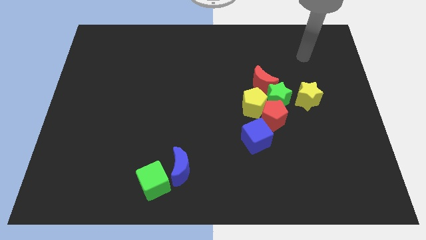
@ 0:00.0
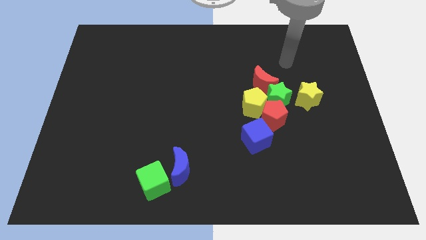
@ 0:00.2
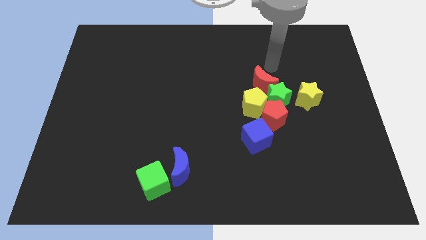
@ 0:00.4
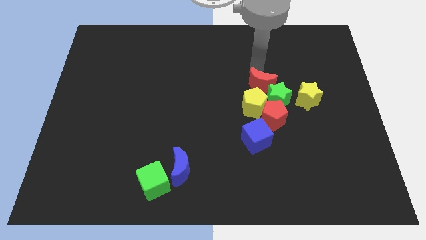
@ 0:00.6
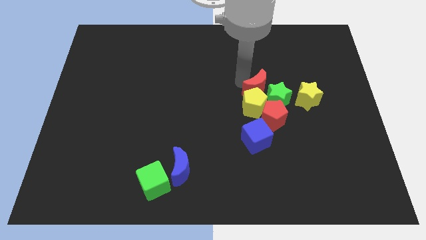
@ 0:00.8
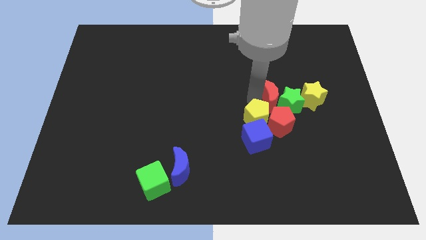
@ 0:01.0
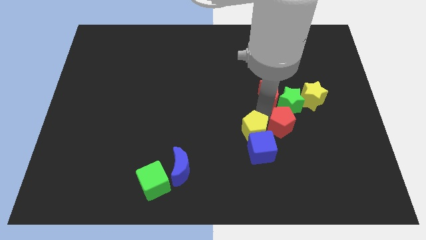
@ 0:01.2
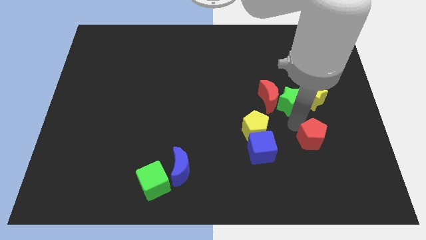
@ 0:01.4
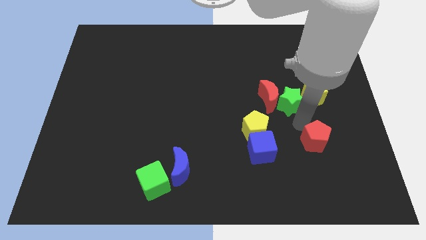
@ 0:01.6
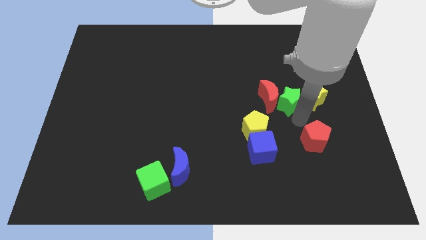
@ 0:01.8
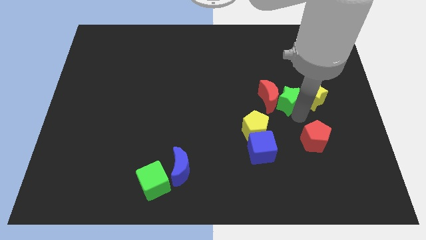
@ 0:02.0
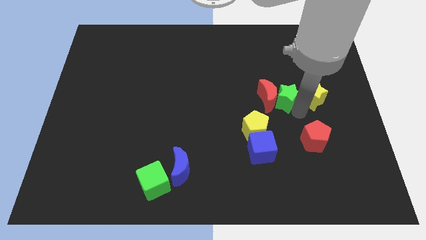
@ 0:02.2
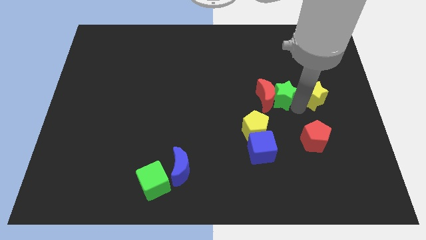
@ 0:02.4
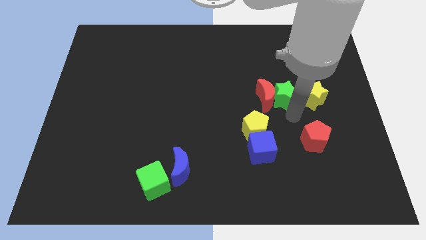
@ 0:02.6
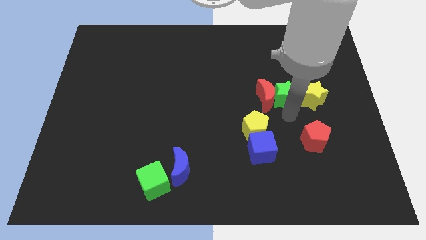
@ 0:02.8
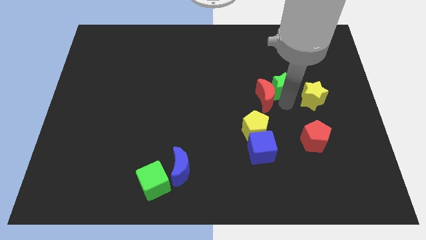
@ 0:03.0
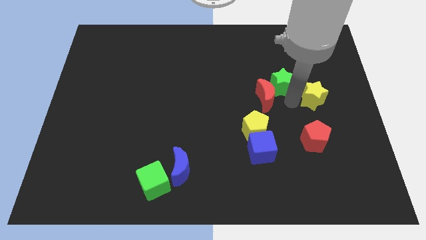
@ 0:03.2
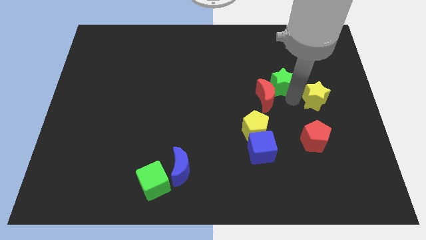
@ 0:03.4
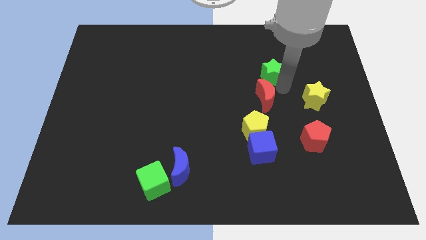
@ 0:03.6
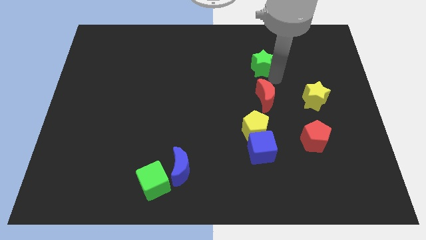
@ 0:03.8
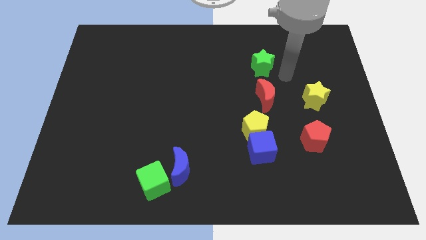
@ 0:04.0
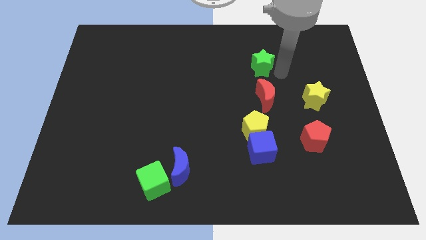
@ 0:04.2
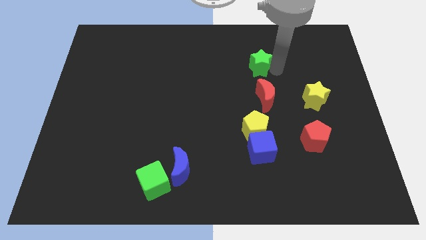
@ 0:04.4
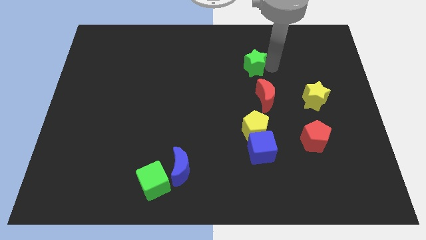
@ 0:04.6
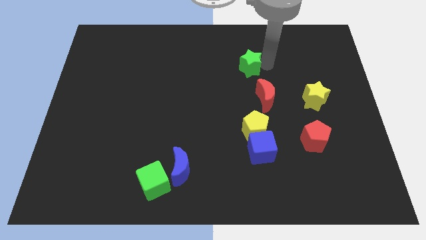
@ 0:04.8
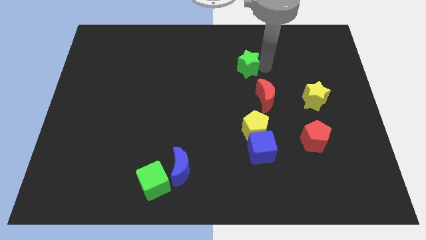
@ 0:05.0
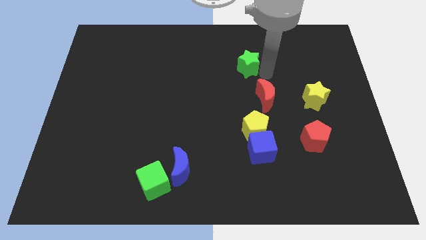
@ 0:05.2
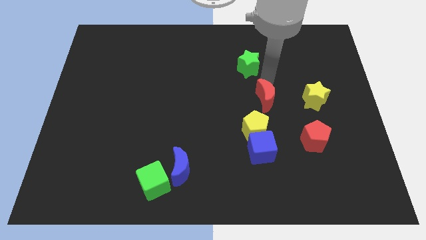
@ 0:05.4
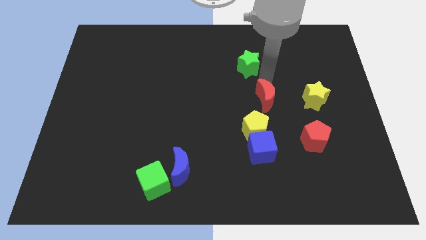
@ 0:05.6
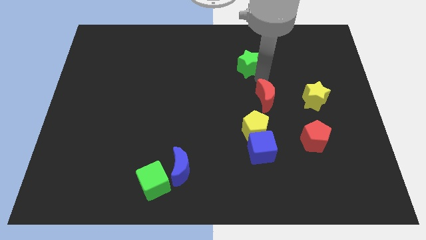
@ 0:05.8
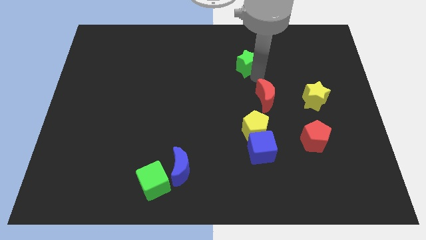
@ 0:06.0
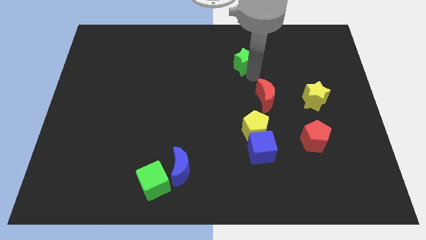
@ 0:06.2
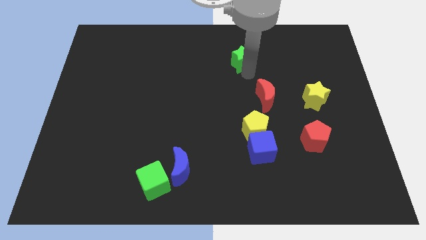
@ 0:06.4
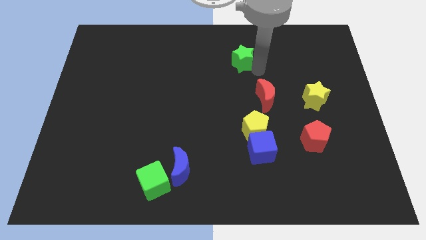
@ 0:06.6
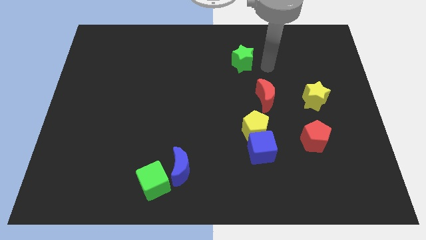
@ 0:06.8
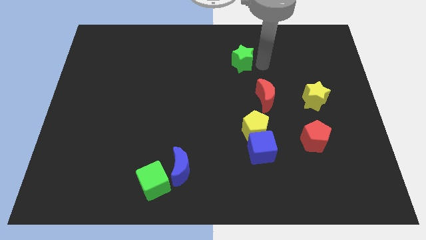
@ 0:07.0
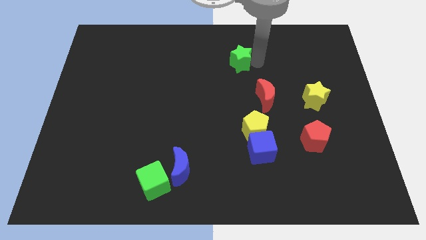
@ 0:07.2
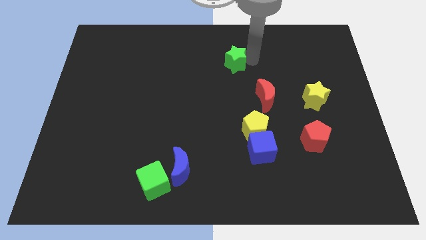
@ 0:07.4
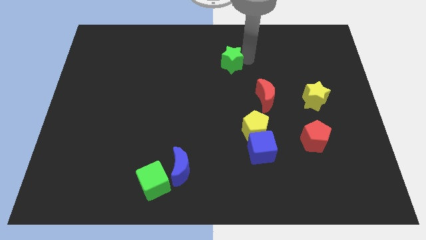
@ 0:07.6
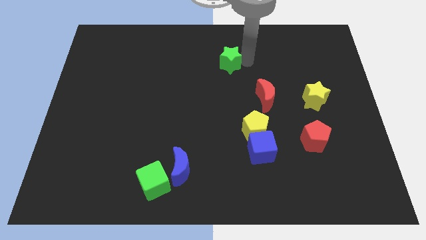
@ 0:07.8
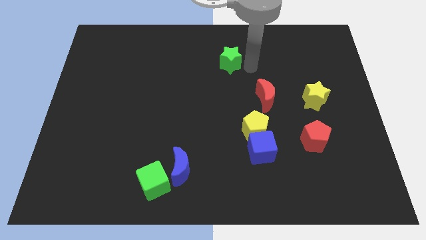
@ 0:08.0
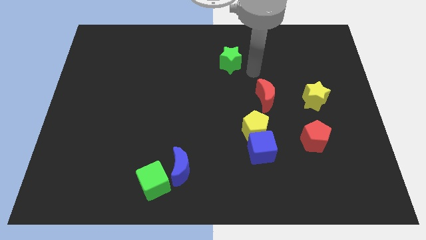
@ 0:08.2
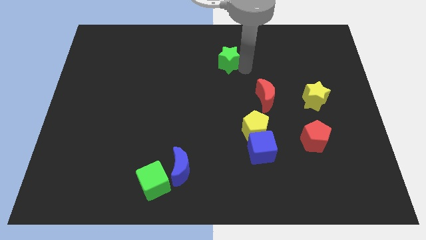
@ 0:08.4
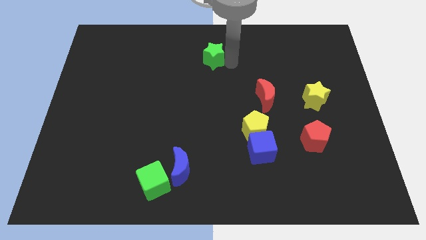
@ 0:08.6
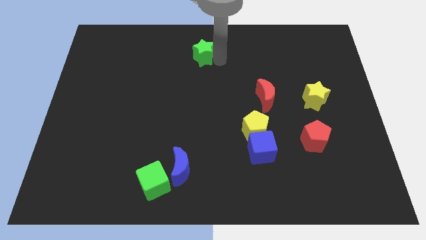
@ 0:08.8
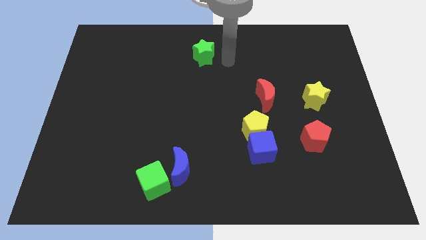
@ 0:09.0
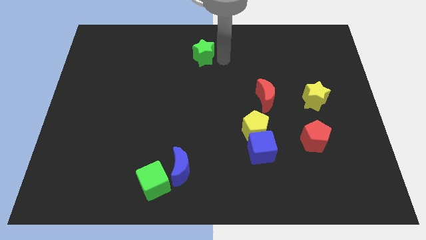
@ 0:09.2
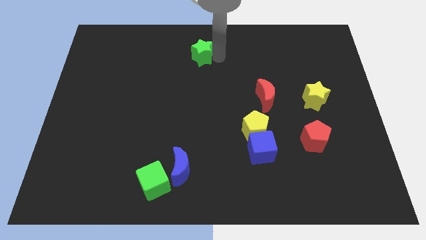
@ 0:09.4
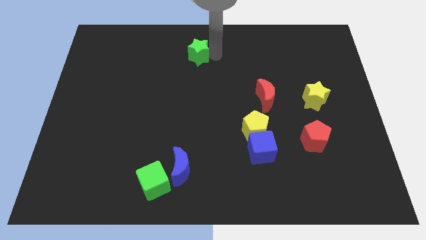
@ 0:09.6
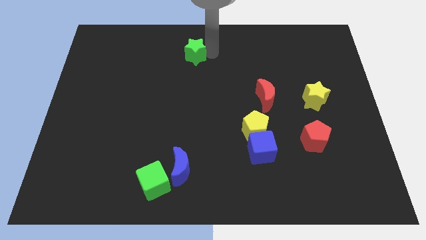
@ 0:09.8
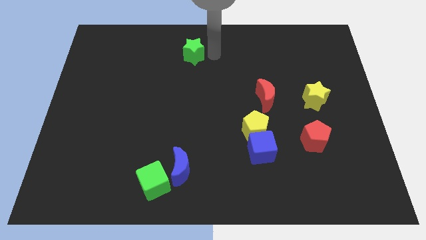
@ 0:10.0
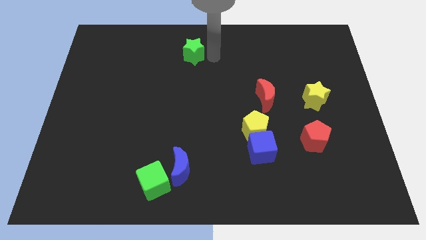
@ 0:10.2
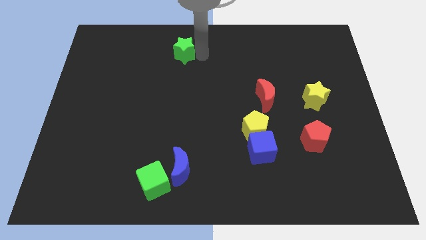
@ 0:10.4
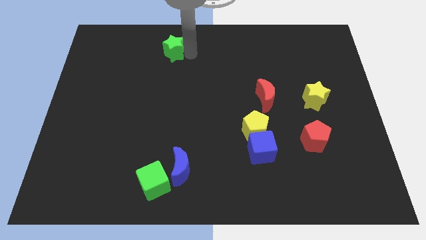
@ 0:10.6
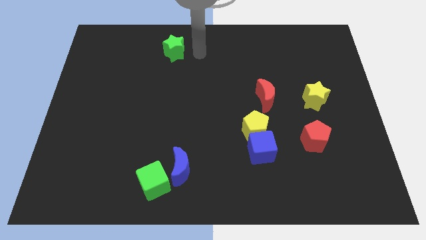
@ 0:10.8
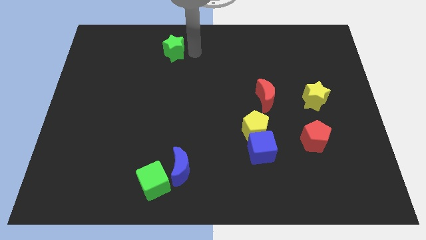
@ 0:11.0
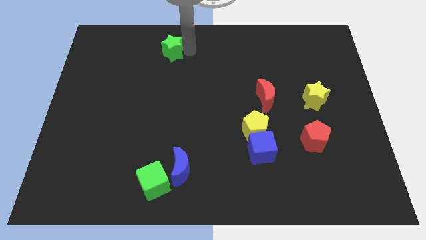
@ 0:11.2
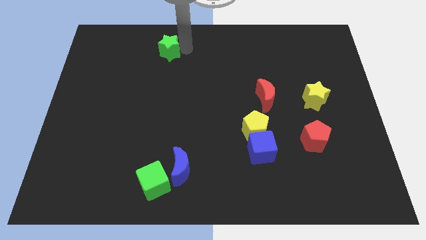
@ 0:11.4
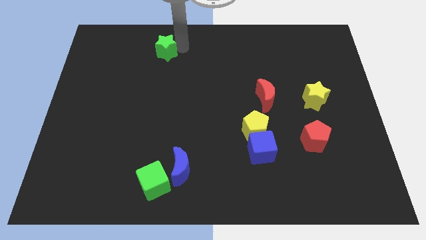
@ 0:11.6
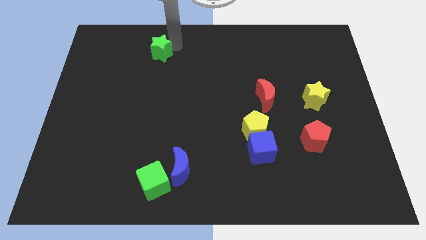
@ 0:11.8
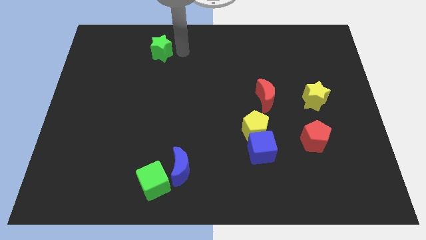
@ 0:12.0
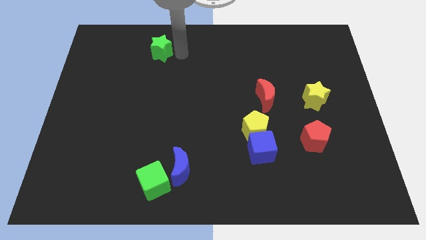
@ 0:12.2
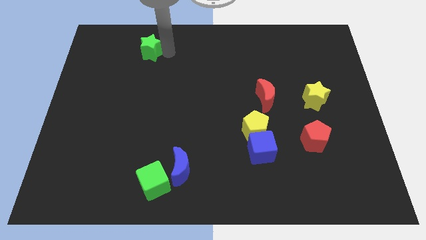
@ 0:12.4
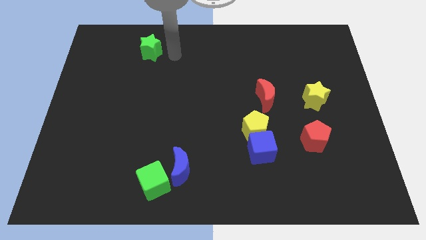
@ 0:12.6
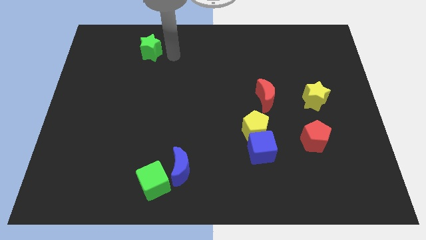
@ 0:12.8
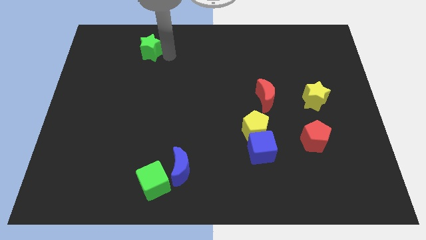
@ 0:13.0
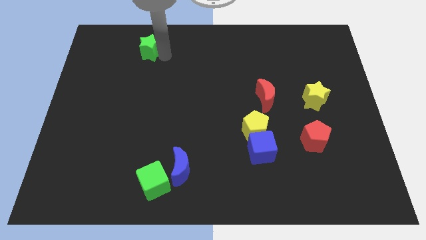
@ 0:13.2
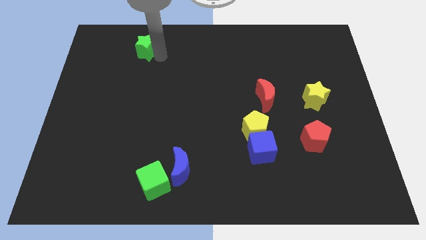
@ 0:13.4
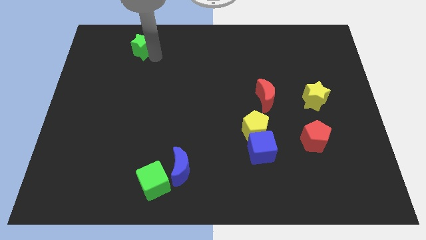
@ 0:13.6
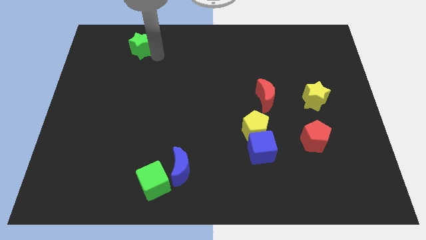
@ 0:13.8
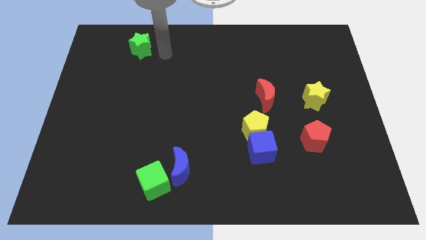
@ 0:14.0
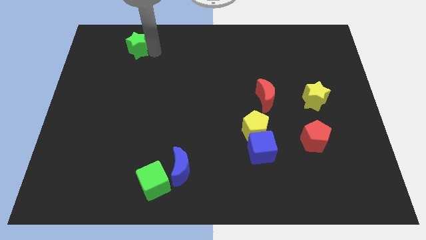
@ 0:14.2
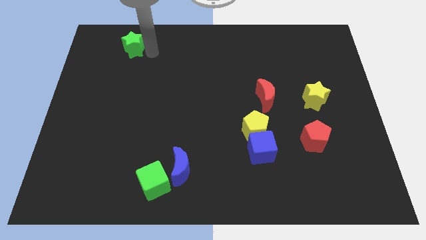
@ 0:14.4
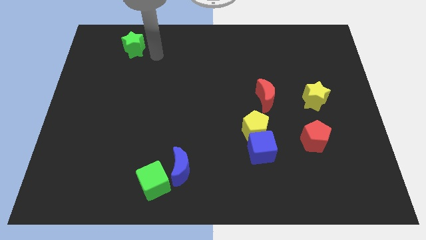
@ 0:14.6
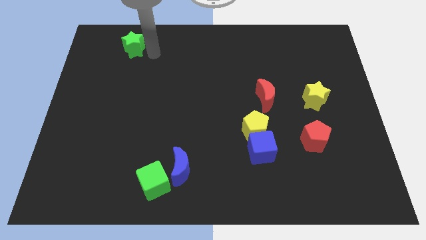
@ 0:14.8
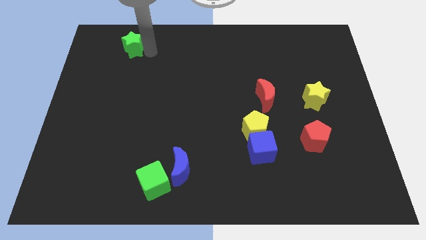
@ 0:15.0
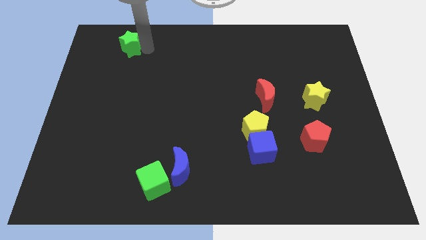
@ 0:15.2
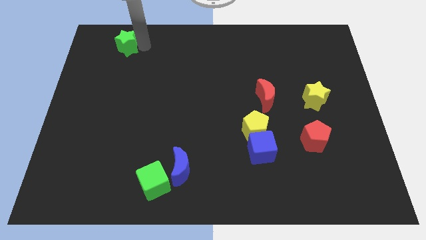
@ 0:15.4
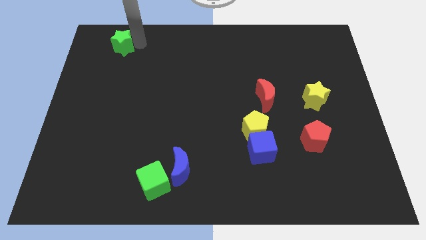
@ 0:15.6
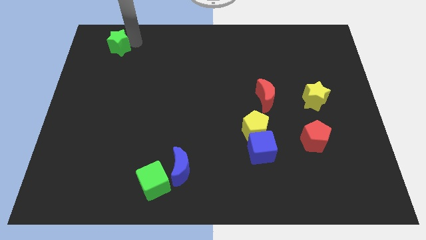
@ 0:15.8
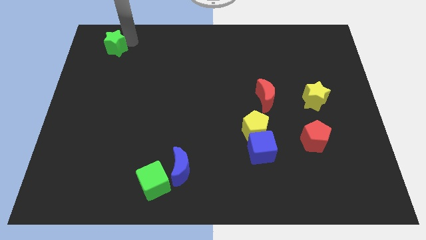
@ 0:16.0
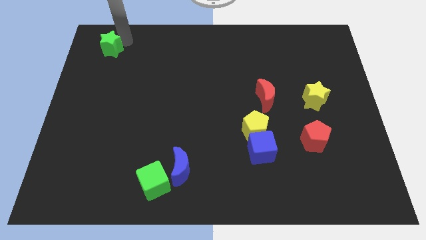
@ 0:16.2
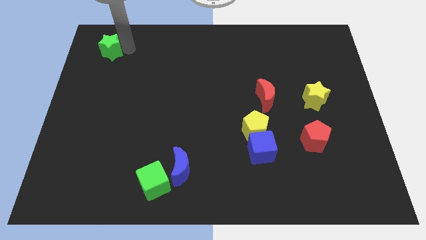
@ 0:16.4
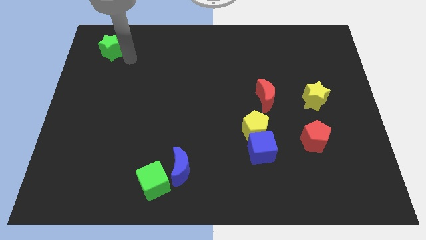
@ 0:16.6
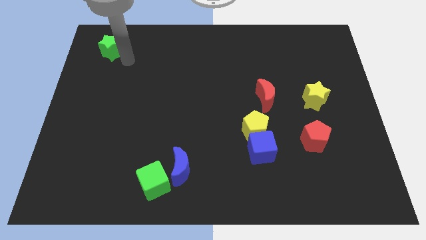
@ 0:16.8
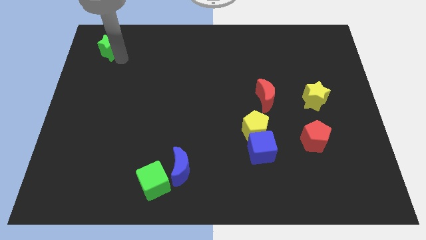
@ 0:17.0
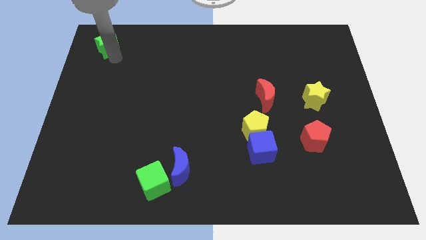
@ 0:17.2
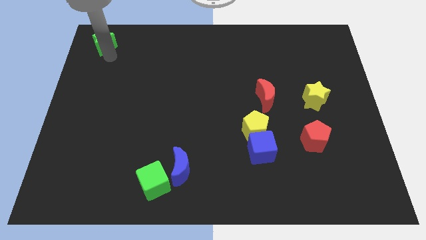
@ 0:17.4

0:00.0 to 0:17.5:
slide the green star to the top left corner
